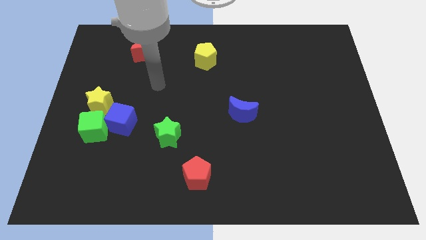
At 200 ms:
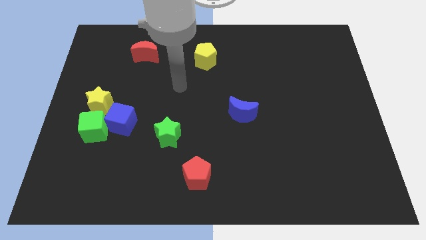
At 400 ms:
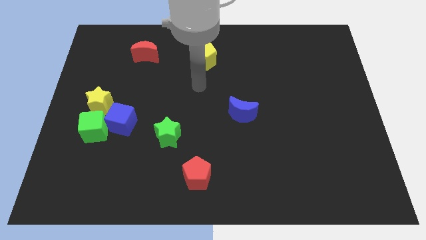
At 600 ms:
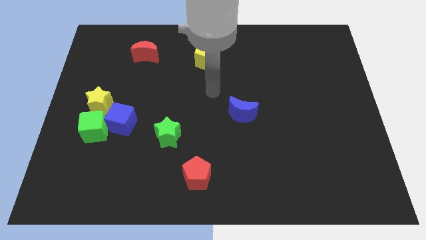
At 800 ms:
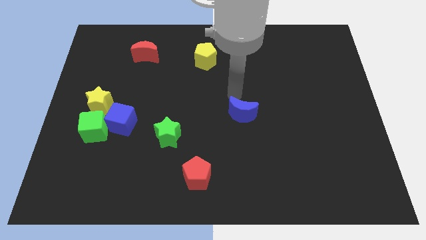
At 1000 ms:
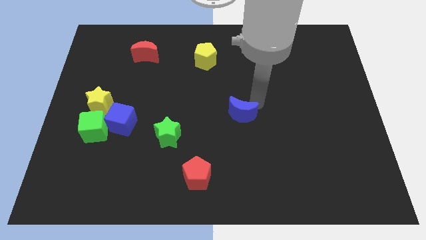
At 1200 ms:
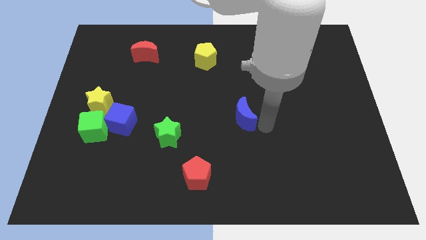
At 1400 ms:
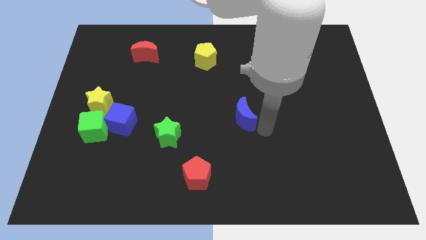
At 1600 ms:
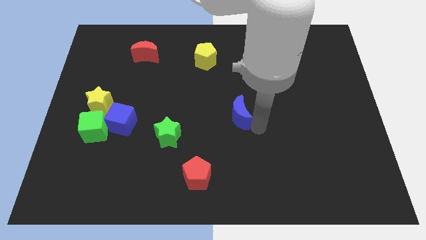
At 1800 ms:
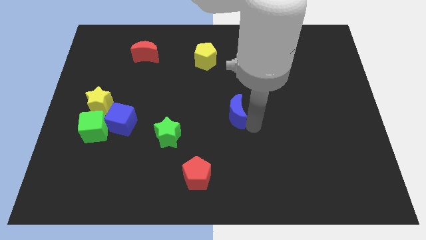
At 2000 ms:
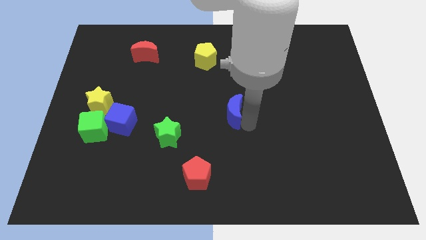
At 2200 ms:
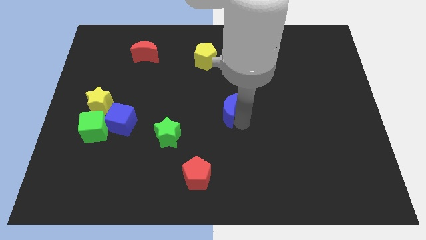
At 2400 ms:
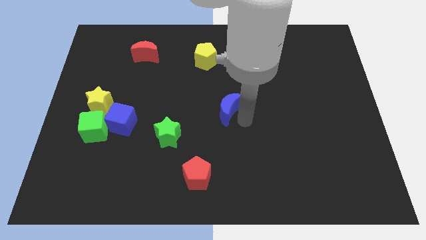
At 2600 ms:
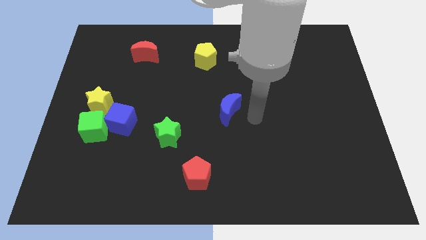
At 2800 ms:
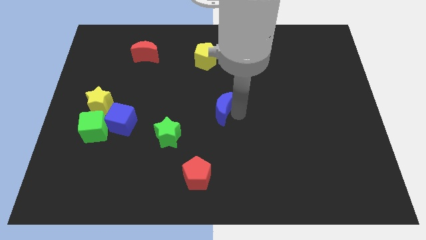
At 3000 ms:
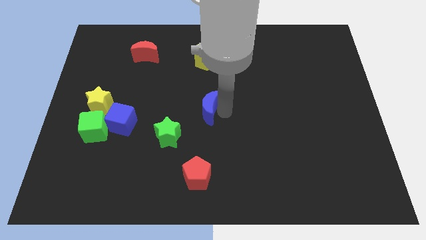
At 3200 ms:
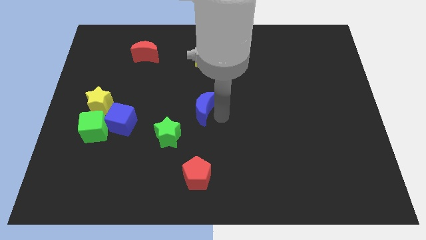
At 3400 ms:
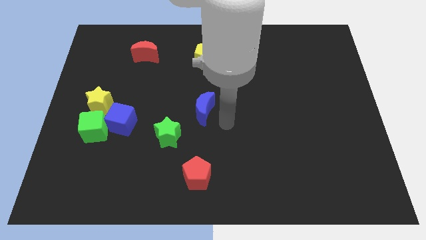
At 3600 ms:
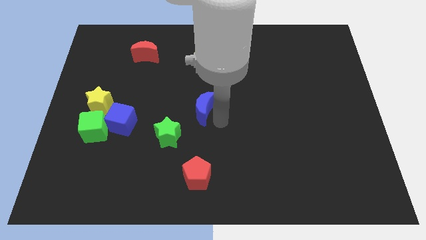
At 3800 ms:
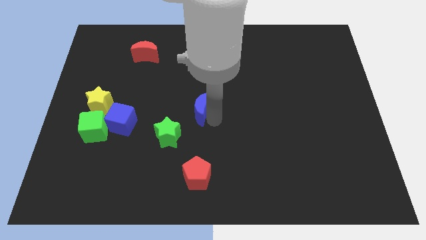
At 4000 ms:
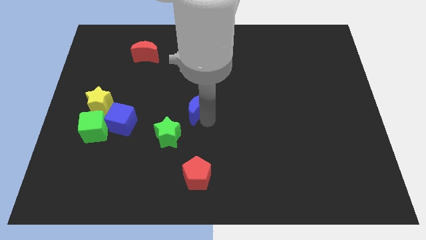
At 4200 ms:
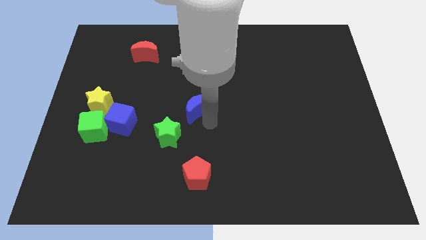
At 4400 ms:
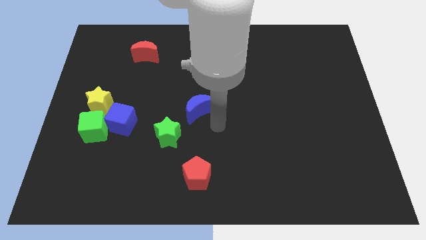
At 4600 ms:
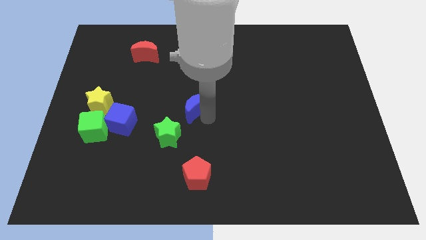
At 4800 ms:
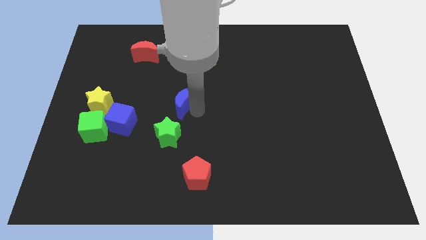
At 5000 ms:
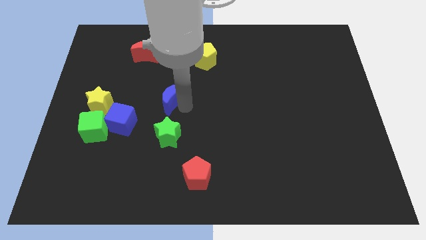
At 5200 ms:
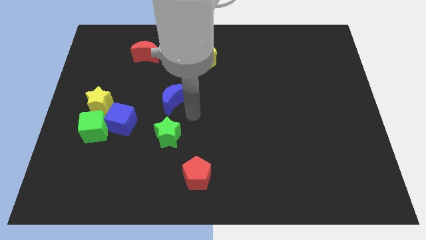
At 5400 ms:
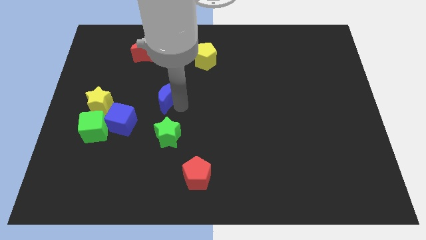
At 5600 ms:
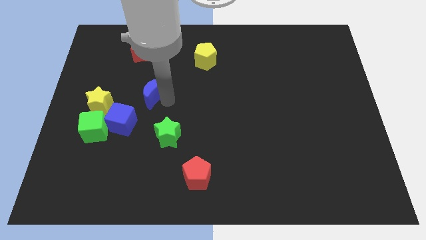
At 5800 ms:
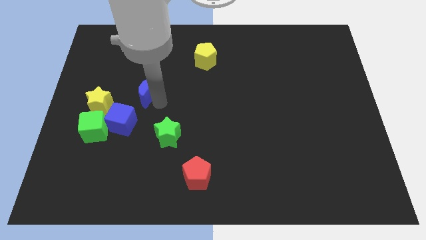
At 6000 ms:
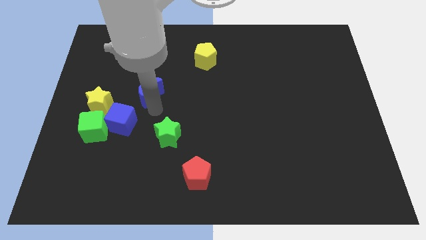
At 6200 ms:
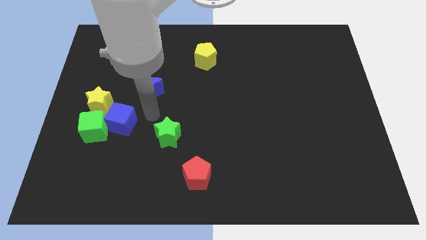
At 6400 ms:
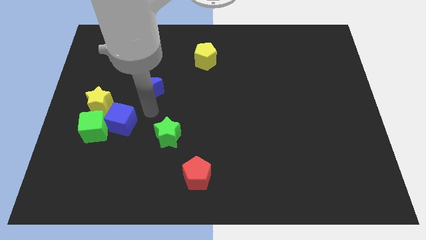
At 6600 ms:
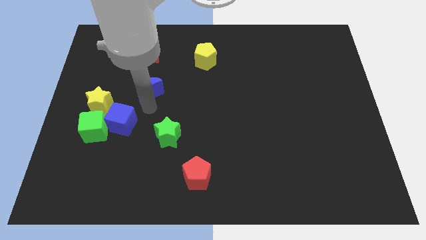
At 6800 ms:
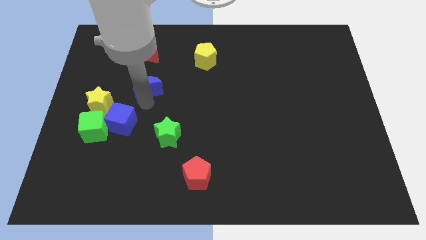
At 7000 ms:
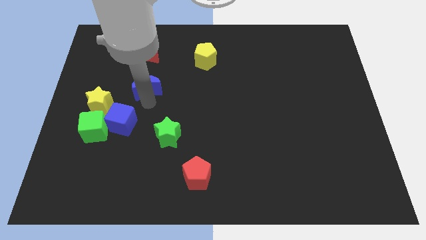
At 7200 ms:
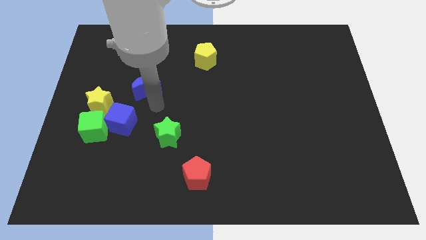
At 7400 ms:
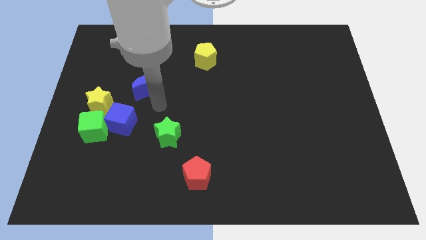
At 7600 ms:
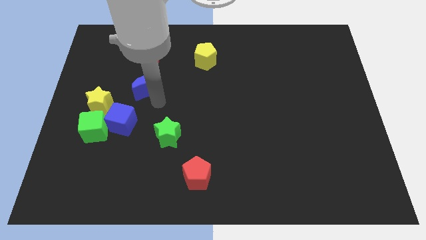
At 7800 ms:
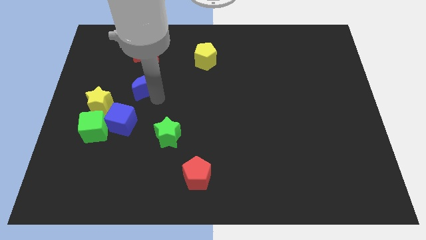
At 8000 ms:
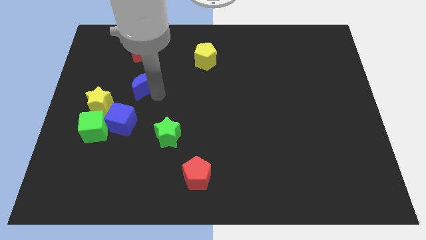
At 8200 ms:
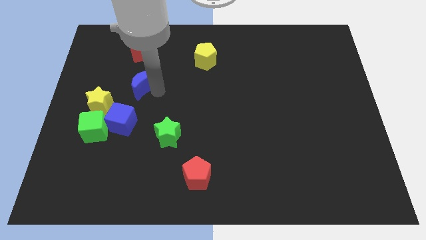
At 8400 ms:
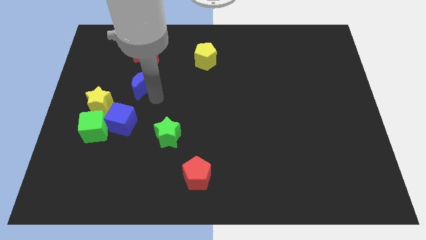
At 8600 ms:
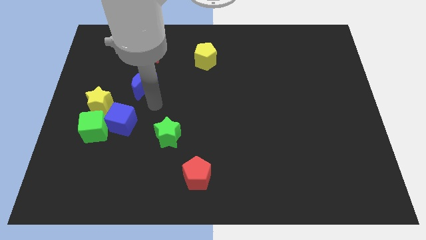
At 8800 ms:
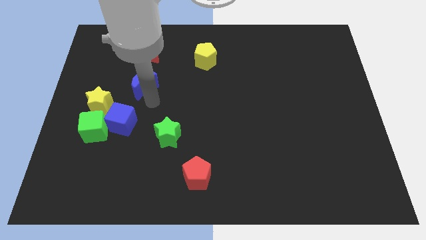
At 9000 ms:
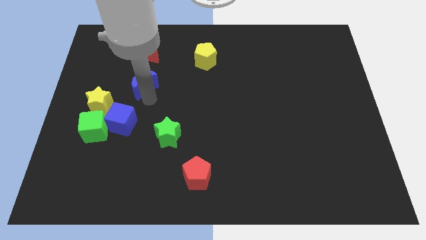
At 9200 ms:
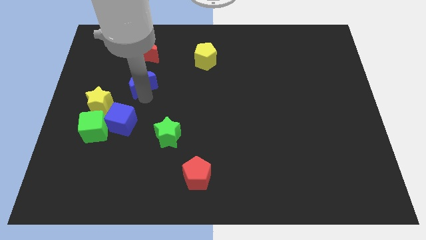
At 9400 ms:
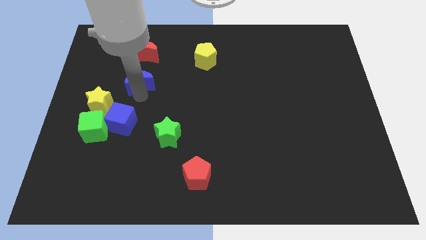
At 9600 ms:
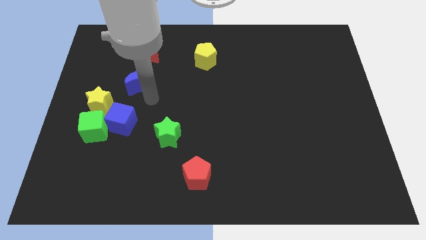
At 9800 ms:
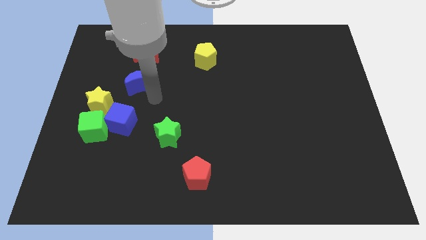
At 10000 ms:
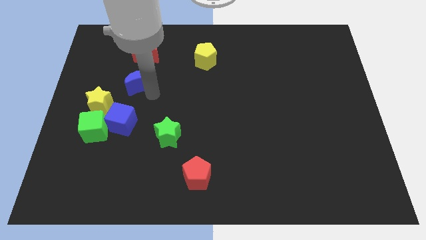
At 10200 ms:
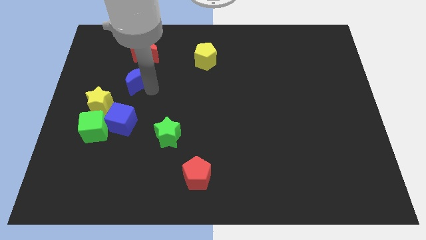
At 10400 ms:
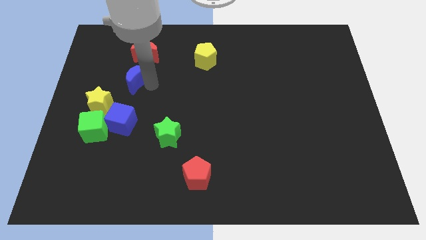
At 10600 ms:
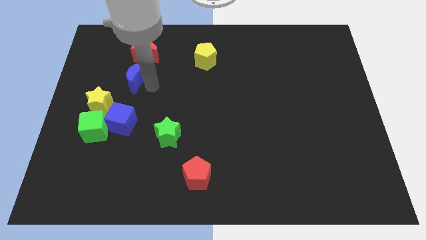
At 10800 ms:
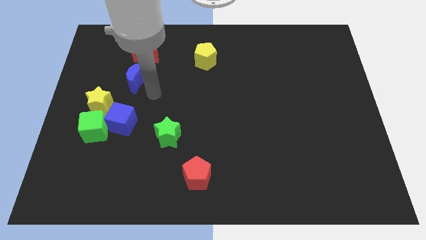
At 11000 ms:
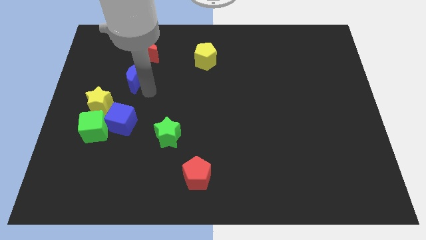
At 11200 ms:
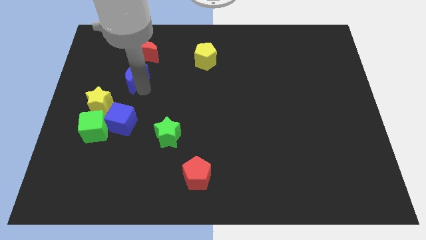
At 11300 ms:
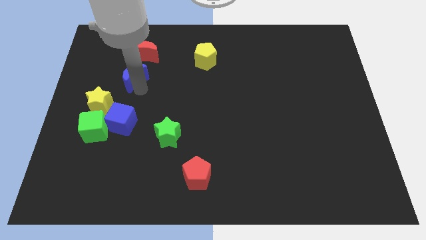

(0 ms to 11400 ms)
move the blue moon to the bottom left of the red moon
